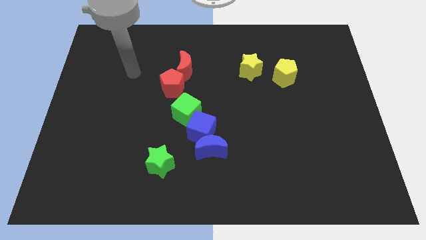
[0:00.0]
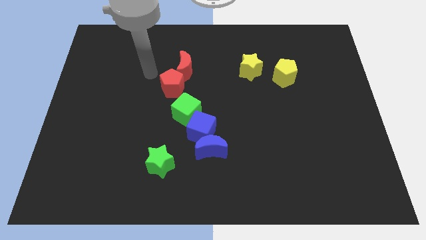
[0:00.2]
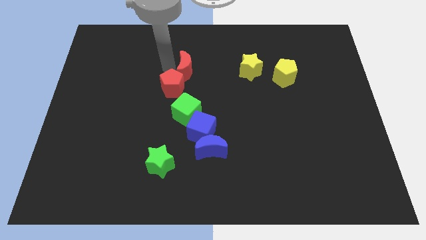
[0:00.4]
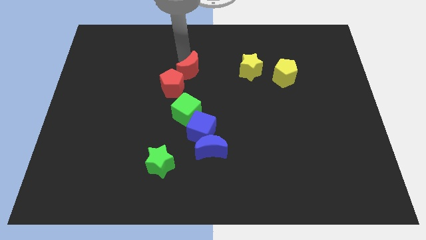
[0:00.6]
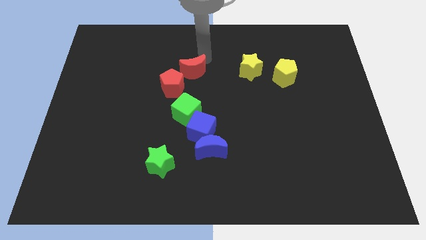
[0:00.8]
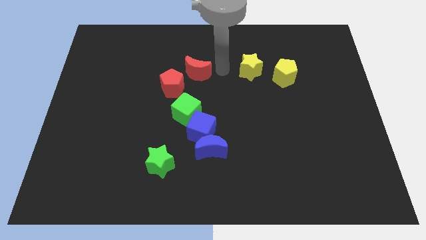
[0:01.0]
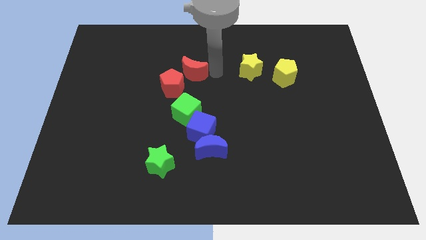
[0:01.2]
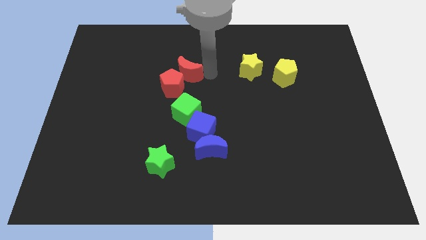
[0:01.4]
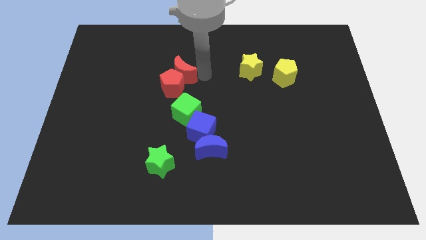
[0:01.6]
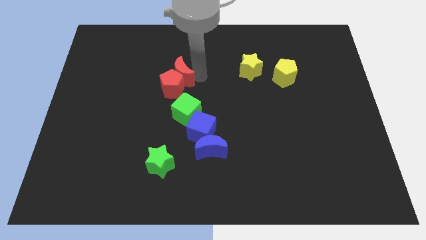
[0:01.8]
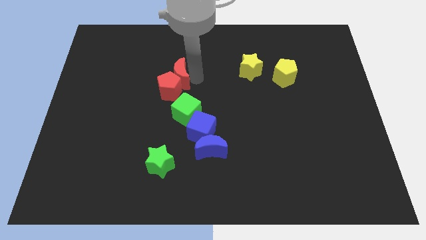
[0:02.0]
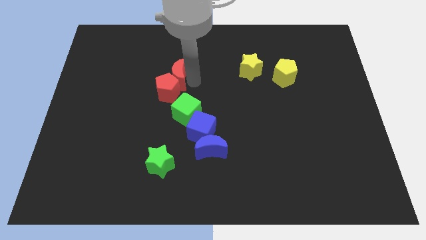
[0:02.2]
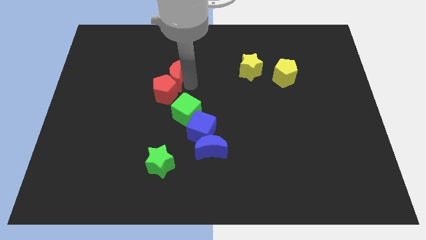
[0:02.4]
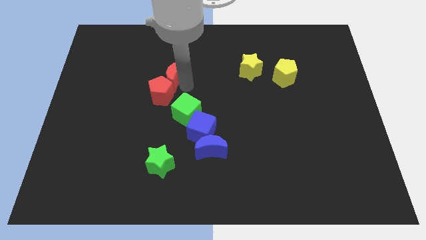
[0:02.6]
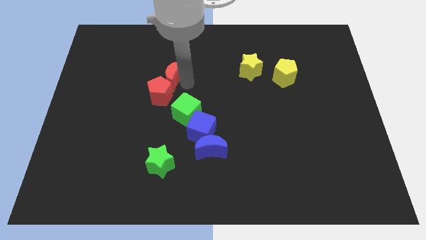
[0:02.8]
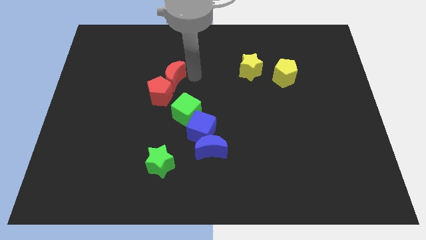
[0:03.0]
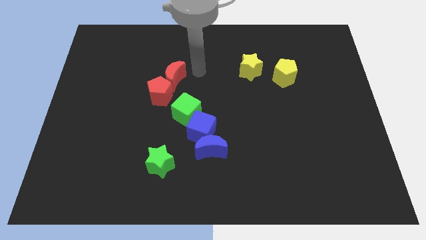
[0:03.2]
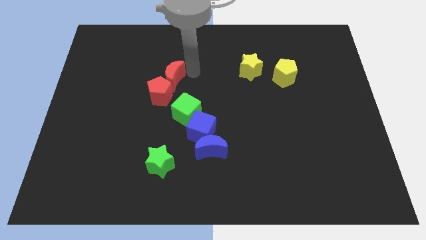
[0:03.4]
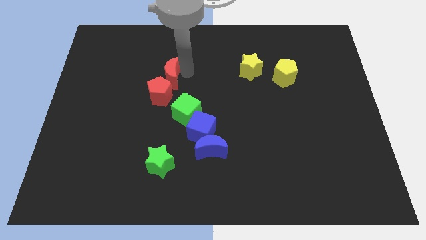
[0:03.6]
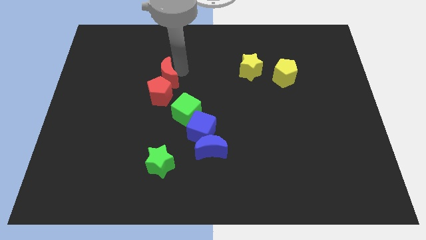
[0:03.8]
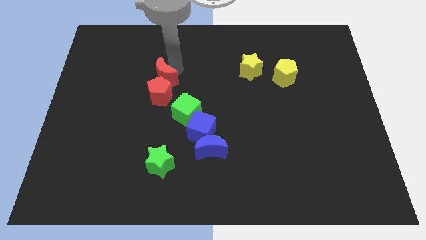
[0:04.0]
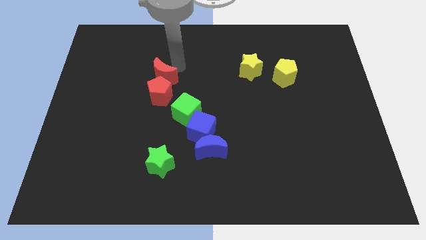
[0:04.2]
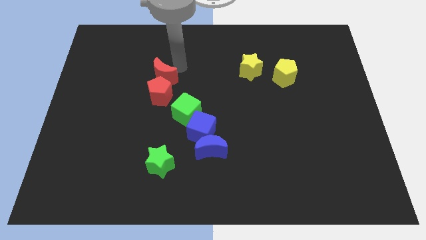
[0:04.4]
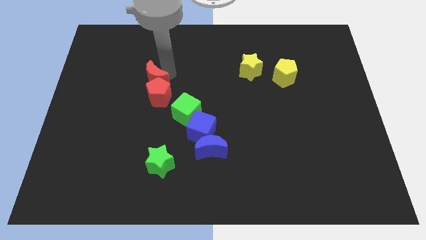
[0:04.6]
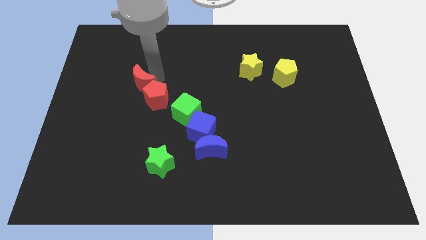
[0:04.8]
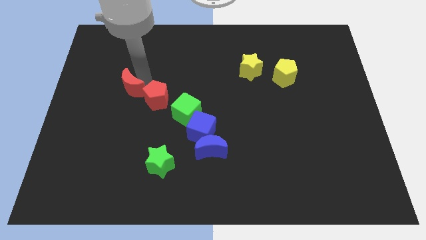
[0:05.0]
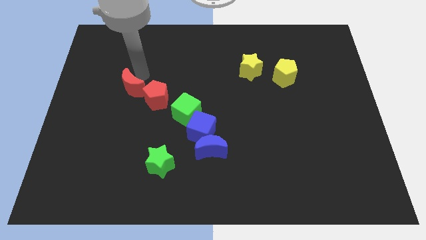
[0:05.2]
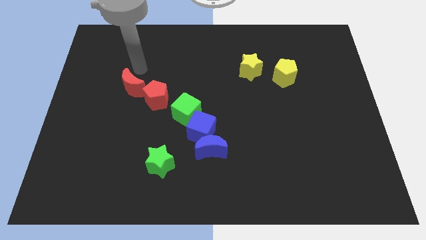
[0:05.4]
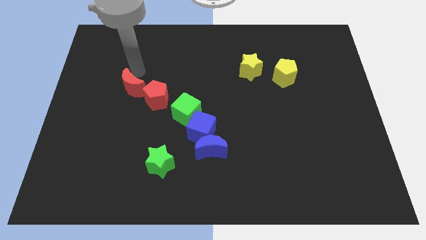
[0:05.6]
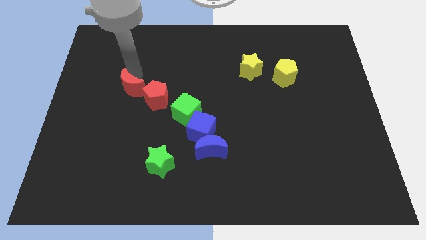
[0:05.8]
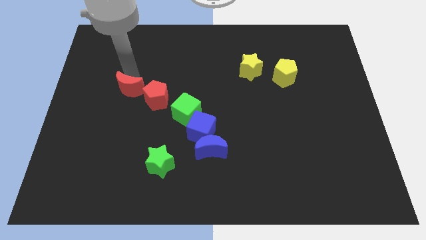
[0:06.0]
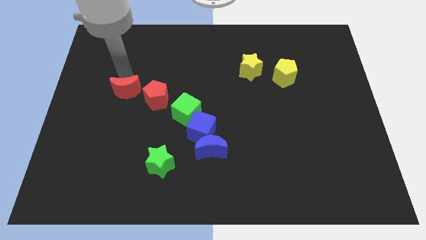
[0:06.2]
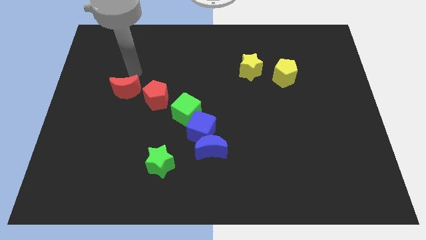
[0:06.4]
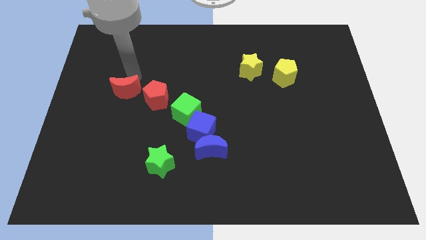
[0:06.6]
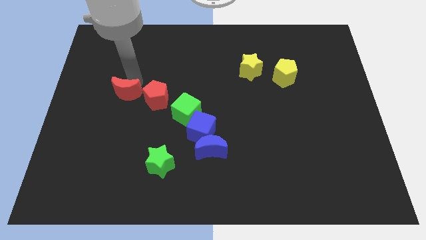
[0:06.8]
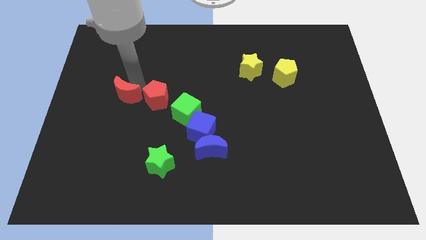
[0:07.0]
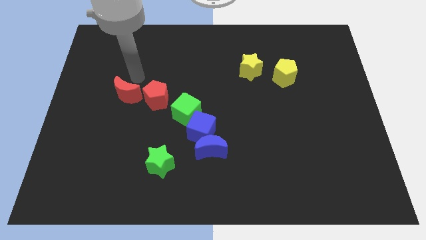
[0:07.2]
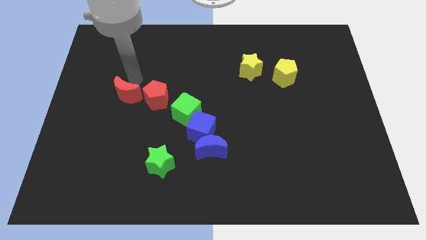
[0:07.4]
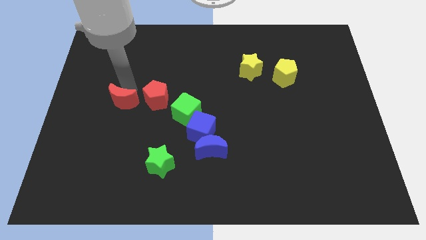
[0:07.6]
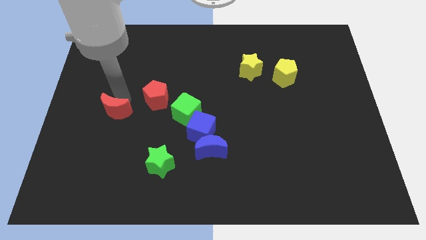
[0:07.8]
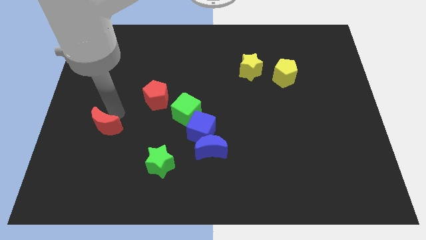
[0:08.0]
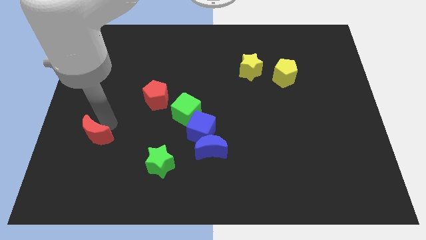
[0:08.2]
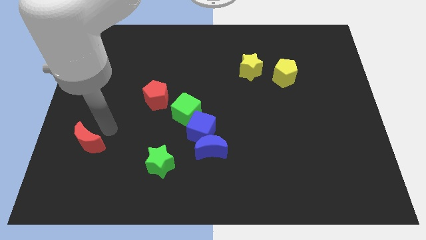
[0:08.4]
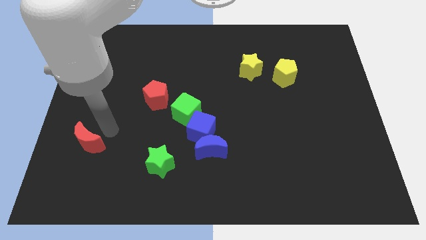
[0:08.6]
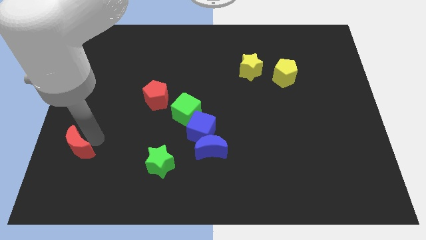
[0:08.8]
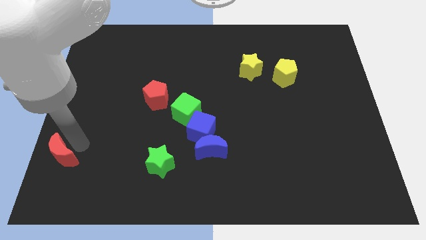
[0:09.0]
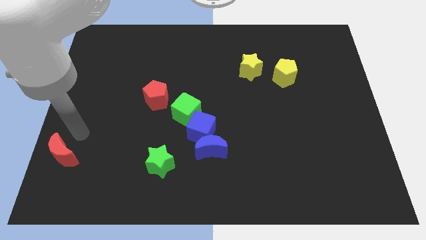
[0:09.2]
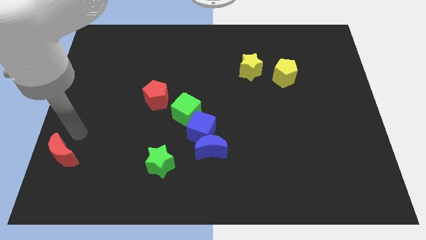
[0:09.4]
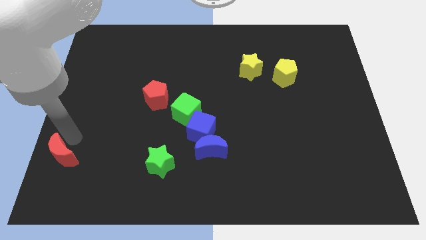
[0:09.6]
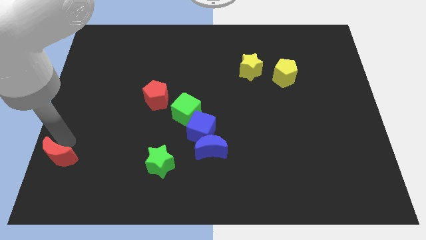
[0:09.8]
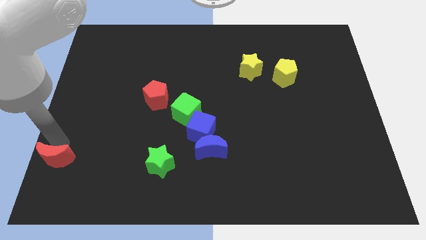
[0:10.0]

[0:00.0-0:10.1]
put the red moon to the bottom left

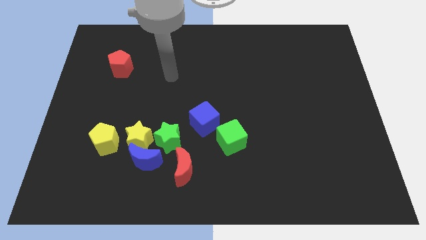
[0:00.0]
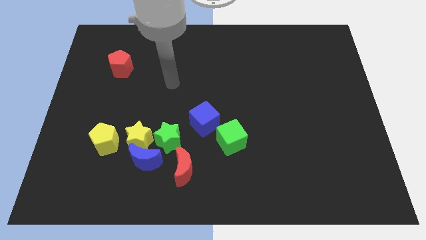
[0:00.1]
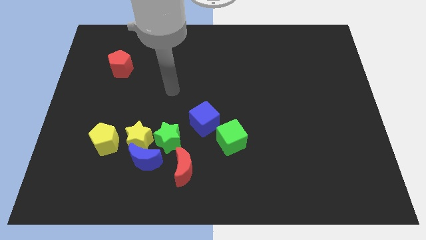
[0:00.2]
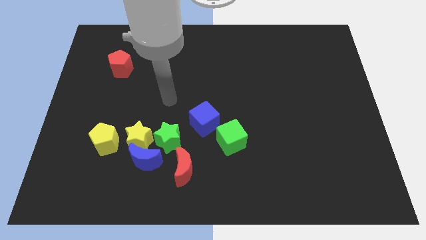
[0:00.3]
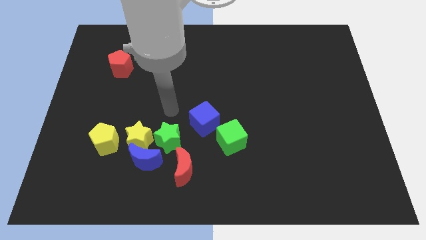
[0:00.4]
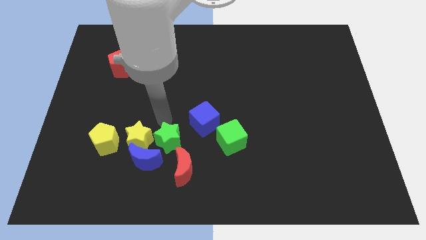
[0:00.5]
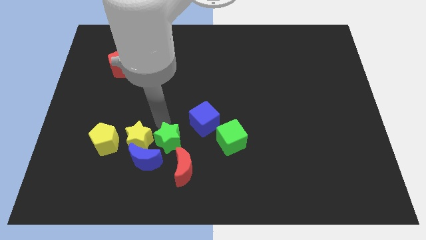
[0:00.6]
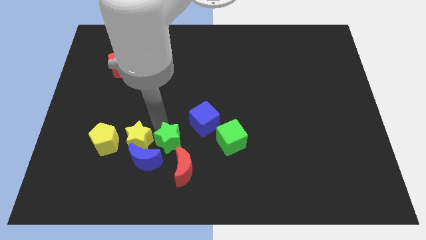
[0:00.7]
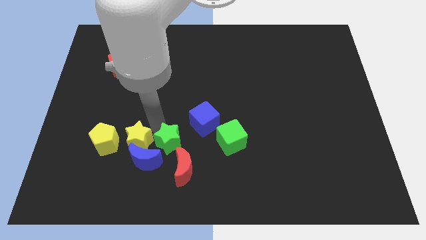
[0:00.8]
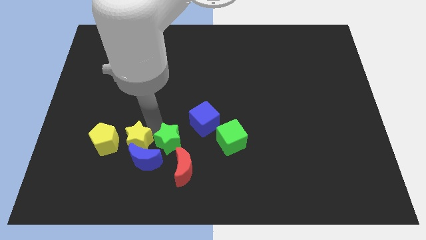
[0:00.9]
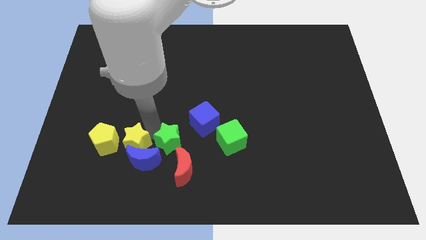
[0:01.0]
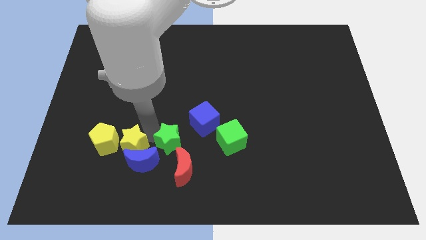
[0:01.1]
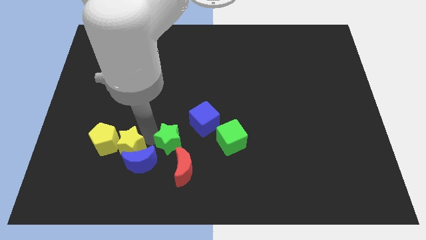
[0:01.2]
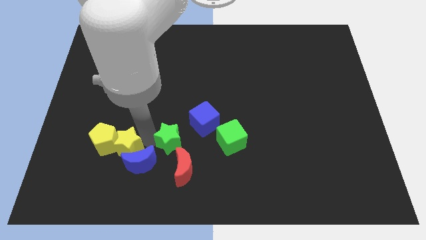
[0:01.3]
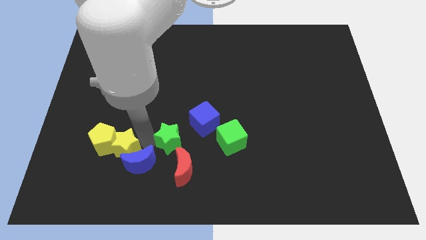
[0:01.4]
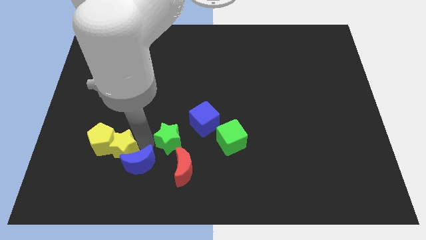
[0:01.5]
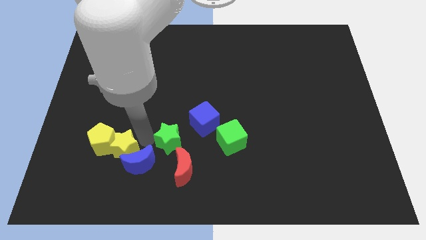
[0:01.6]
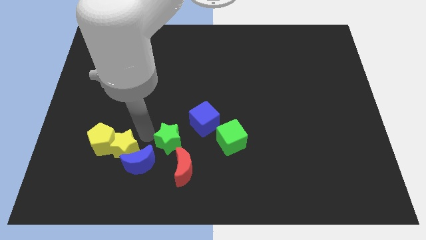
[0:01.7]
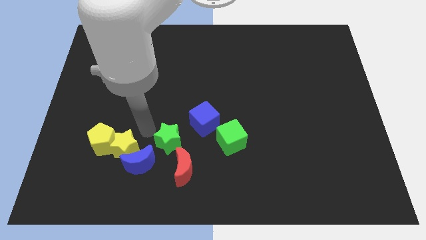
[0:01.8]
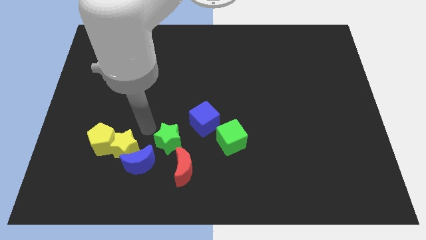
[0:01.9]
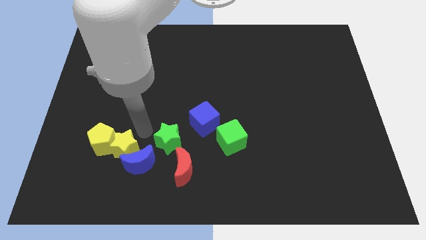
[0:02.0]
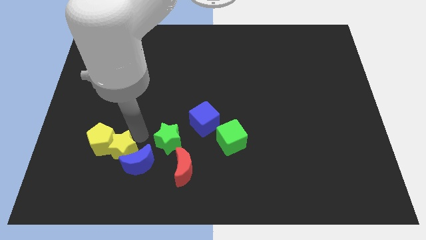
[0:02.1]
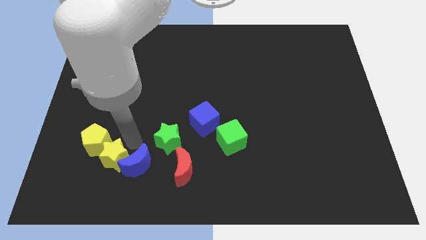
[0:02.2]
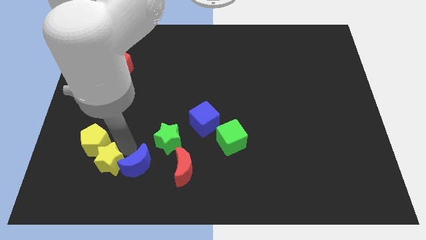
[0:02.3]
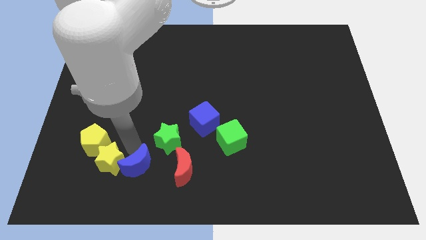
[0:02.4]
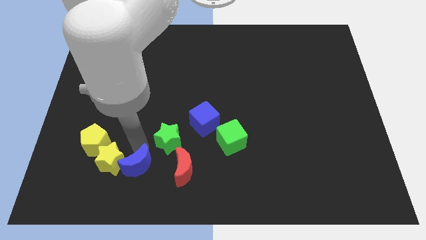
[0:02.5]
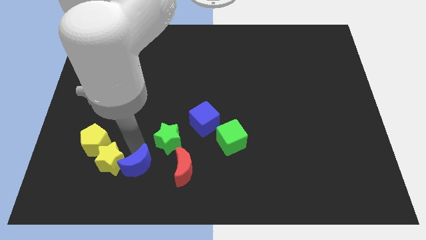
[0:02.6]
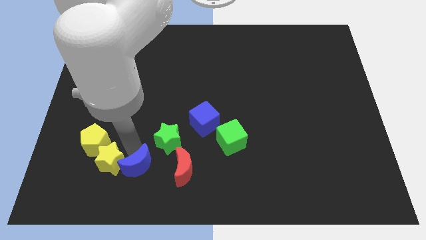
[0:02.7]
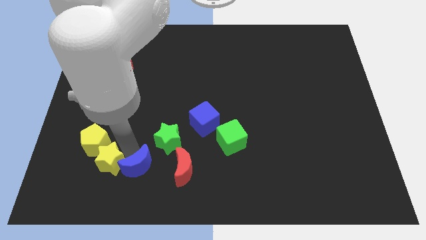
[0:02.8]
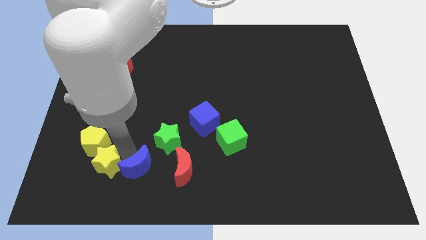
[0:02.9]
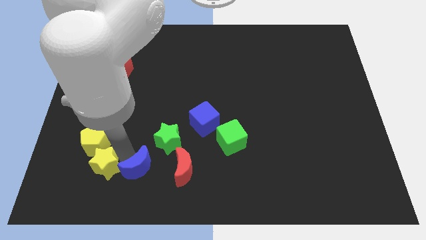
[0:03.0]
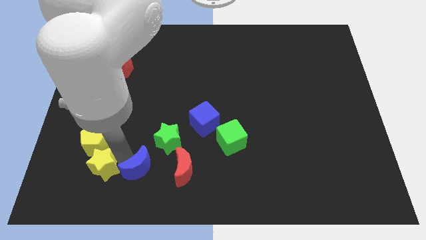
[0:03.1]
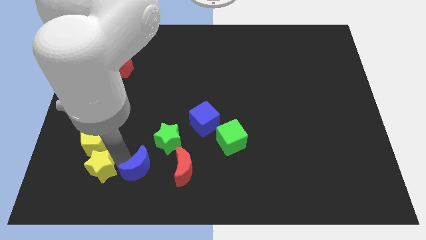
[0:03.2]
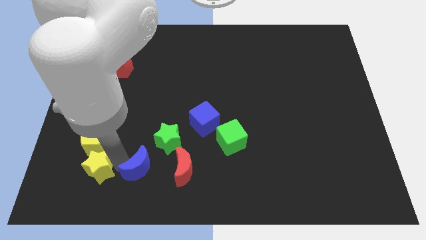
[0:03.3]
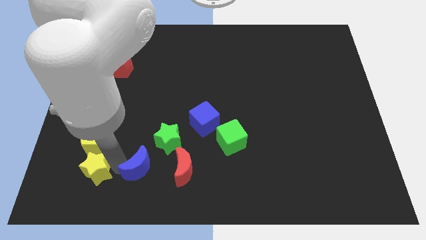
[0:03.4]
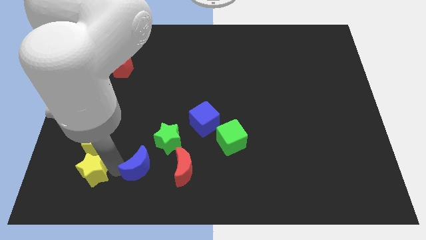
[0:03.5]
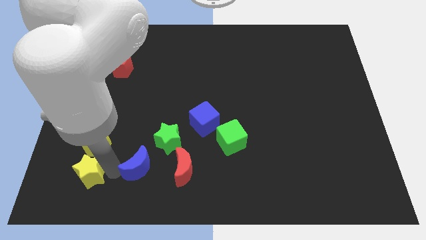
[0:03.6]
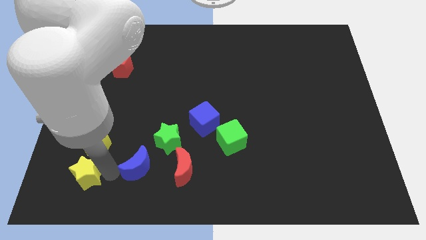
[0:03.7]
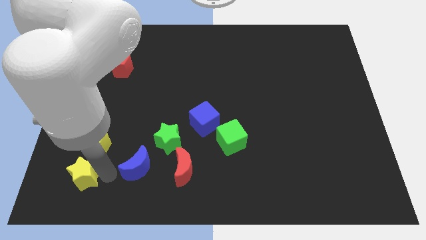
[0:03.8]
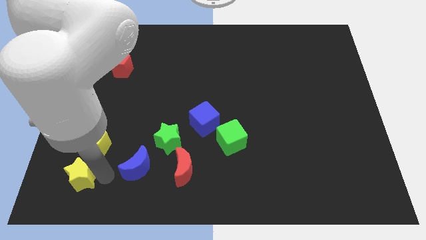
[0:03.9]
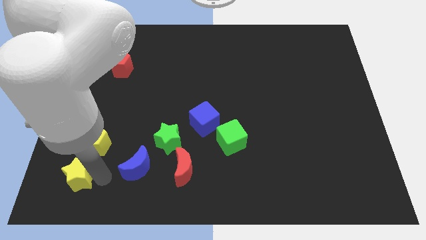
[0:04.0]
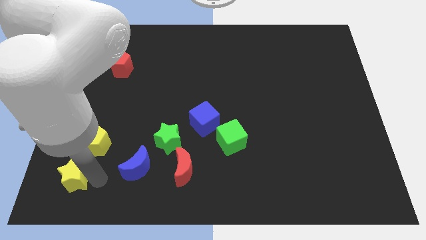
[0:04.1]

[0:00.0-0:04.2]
slide the yellow star to the bottom left
